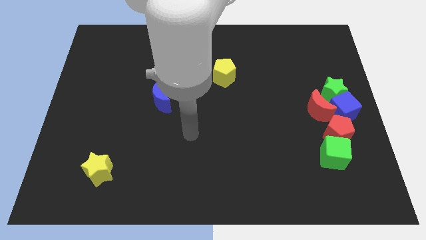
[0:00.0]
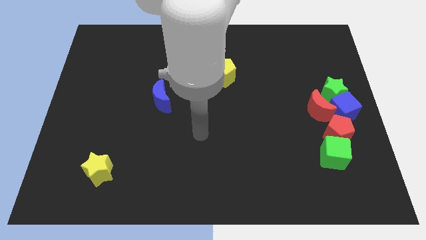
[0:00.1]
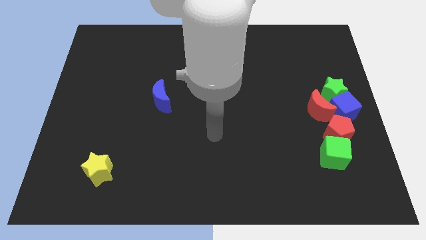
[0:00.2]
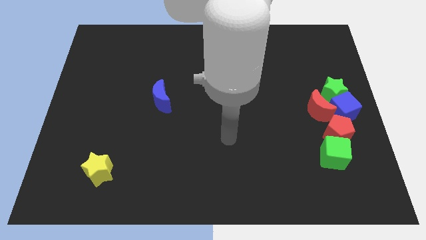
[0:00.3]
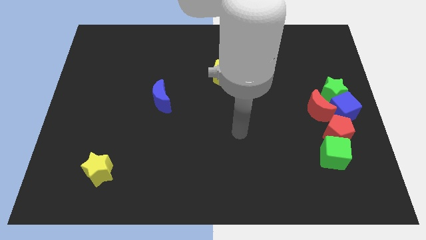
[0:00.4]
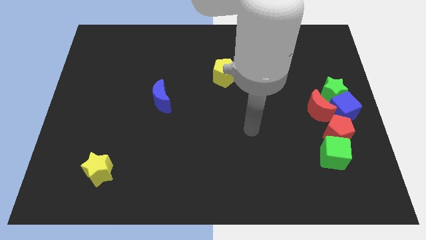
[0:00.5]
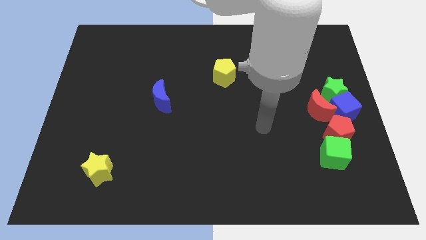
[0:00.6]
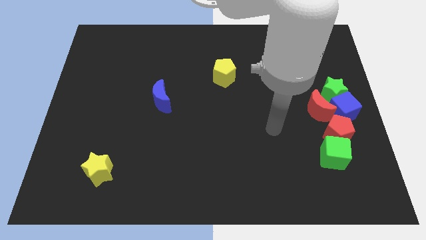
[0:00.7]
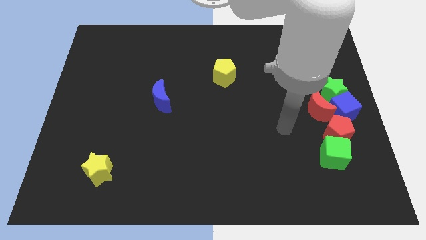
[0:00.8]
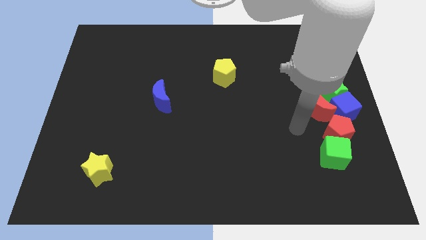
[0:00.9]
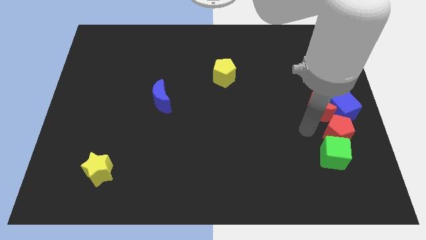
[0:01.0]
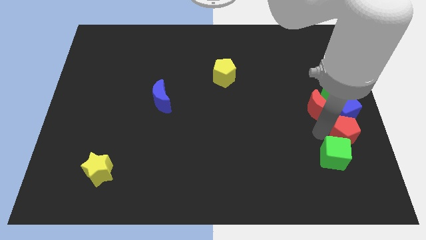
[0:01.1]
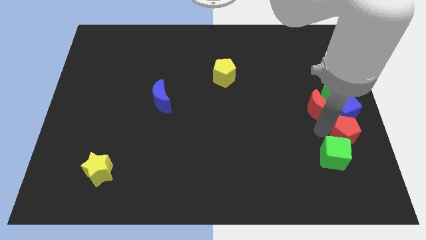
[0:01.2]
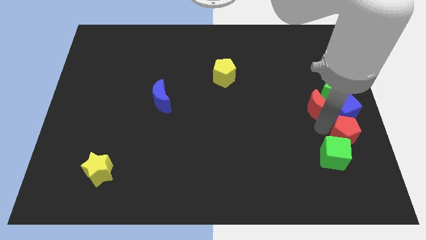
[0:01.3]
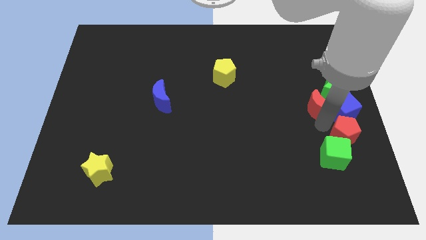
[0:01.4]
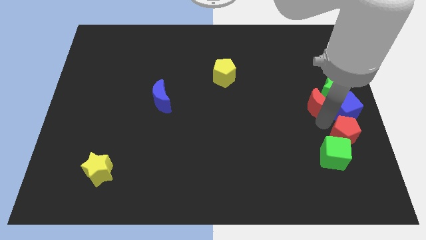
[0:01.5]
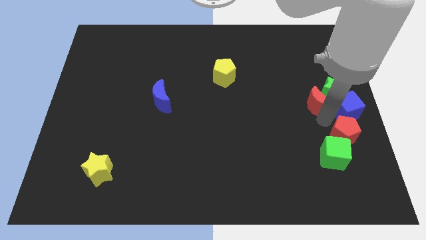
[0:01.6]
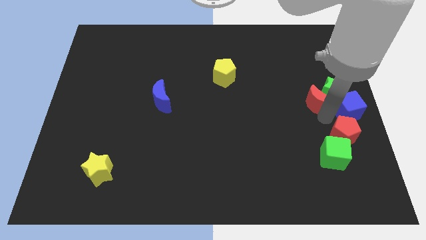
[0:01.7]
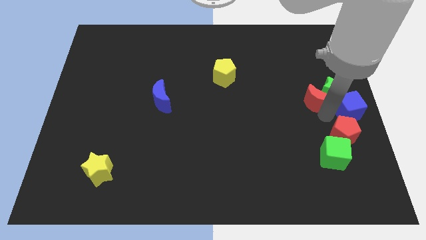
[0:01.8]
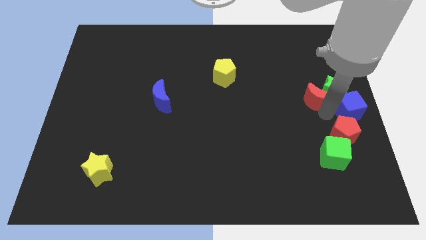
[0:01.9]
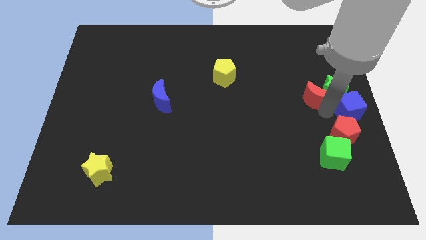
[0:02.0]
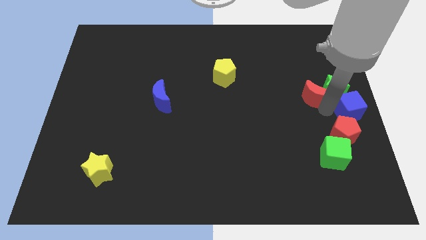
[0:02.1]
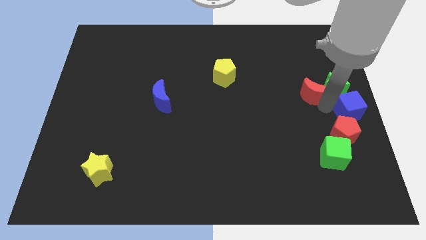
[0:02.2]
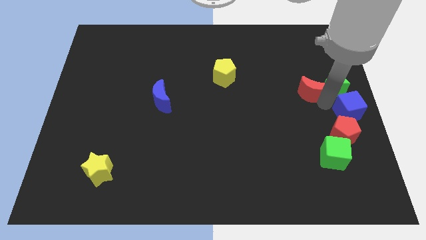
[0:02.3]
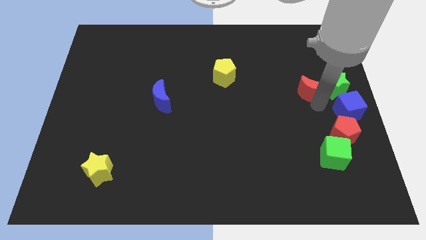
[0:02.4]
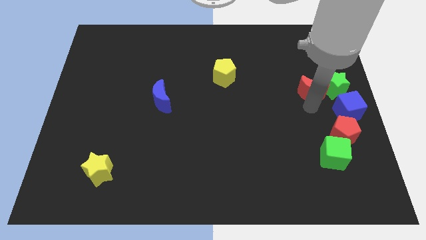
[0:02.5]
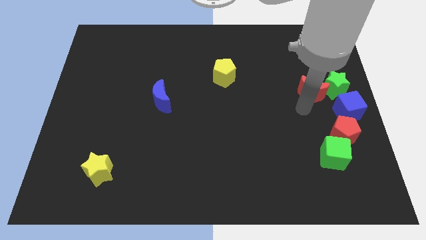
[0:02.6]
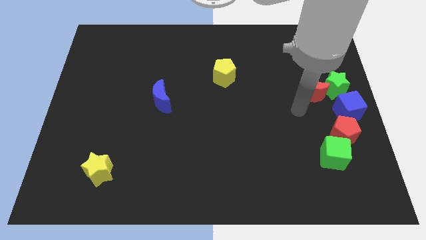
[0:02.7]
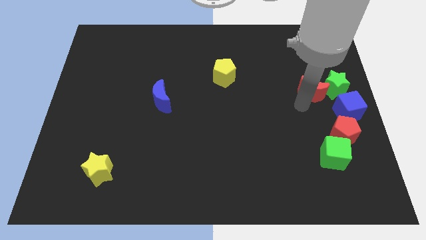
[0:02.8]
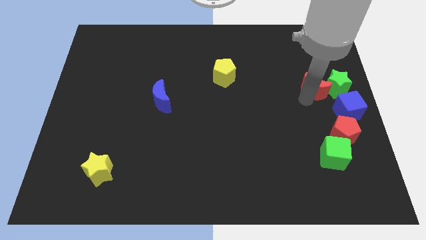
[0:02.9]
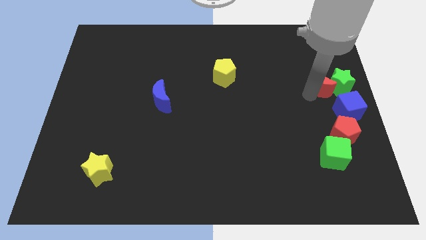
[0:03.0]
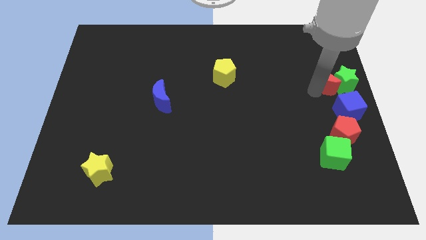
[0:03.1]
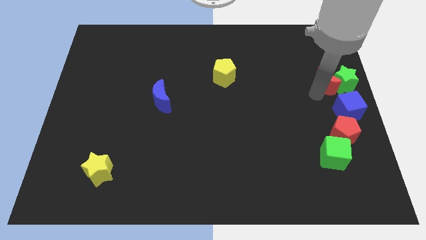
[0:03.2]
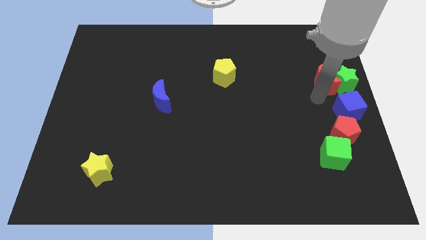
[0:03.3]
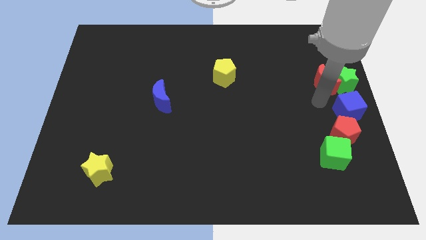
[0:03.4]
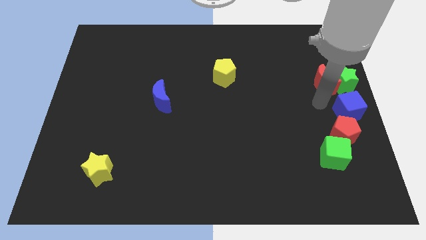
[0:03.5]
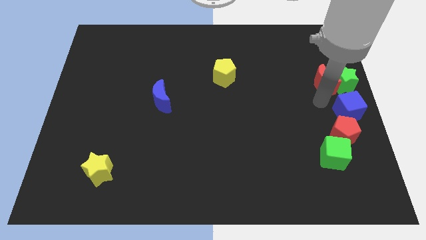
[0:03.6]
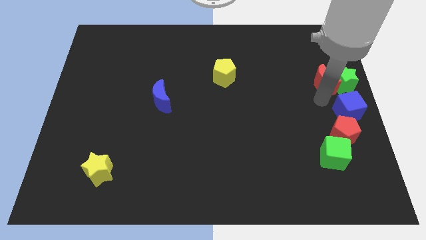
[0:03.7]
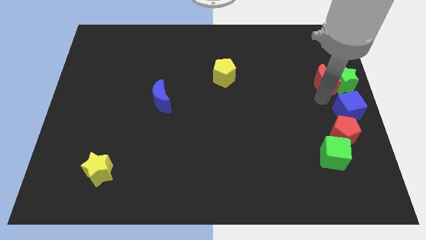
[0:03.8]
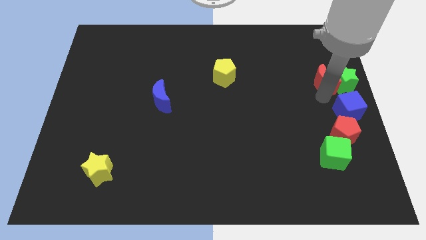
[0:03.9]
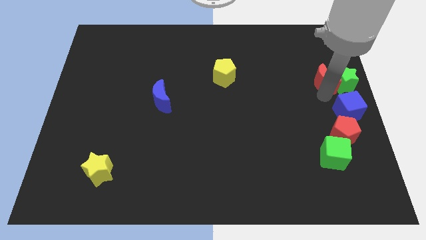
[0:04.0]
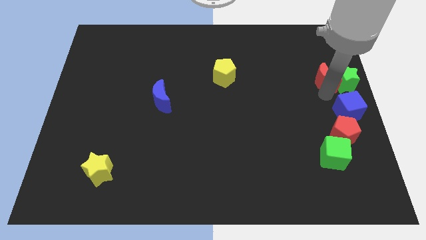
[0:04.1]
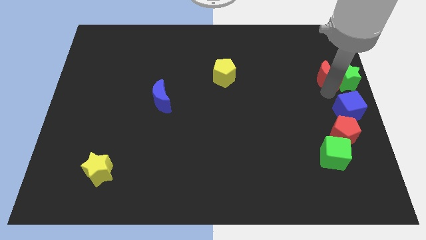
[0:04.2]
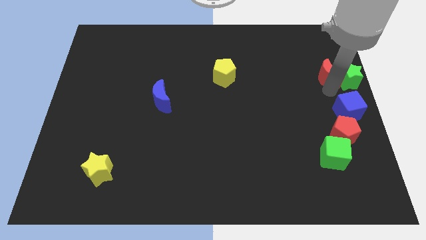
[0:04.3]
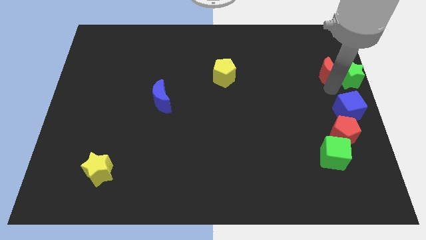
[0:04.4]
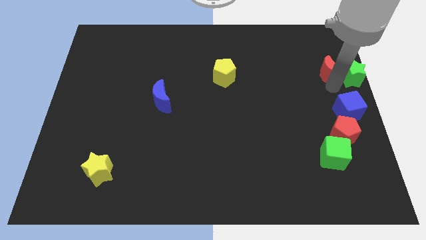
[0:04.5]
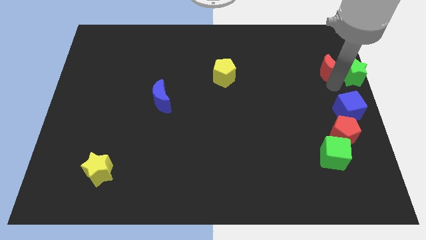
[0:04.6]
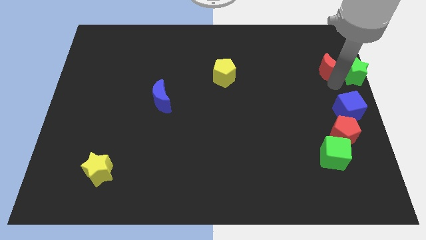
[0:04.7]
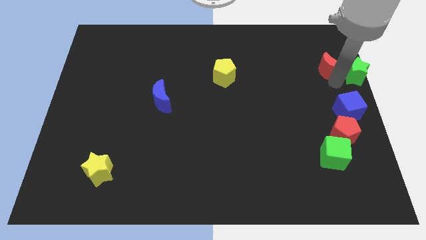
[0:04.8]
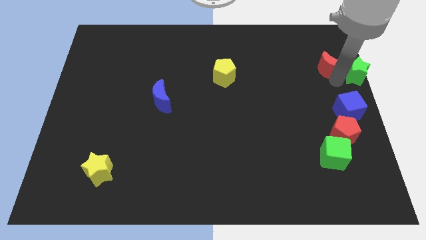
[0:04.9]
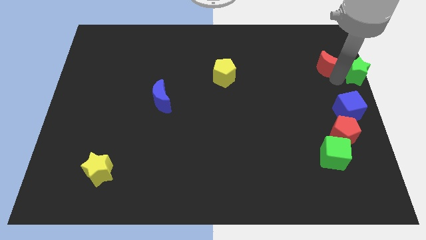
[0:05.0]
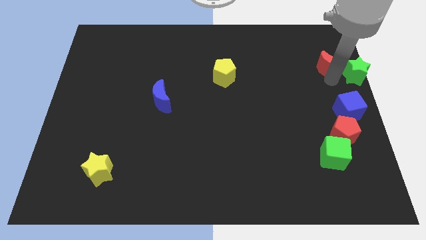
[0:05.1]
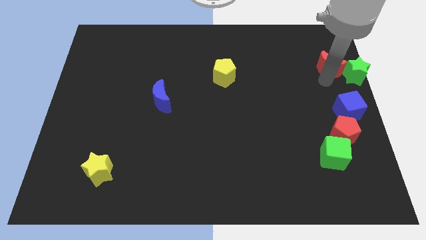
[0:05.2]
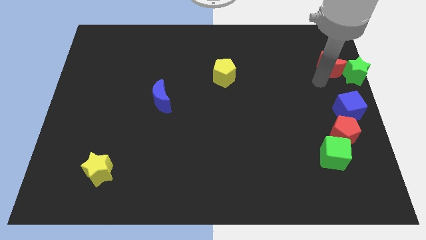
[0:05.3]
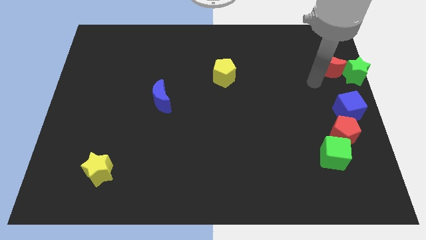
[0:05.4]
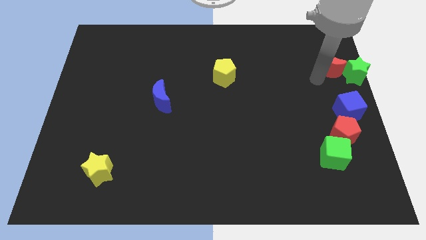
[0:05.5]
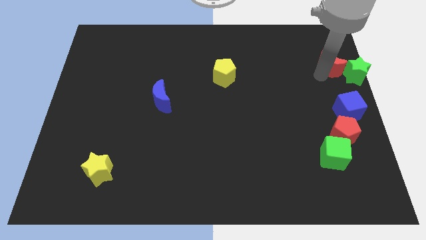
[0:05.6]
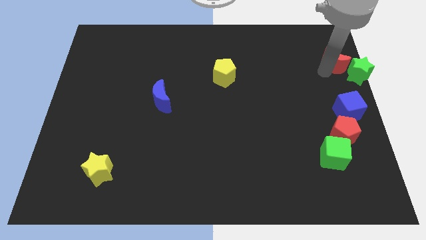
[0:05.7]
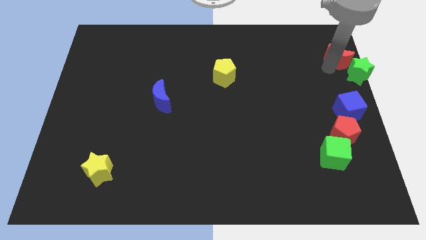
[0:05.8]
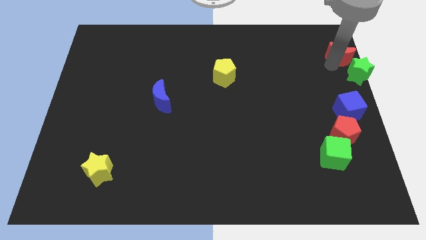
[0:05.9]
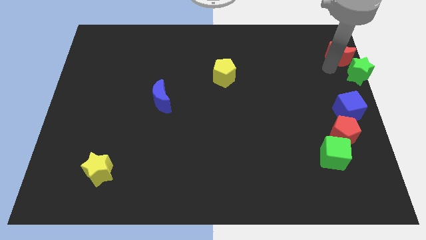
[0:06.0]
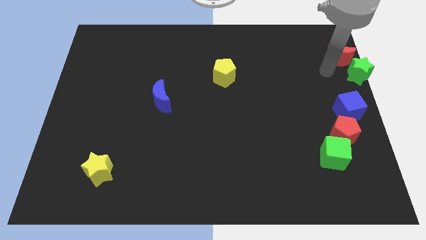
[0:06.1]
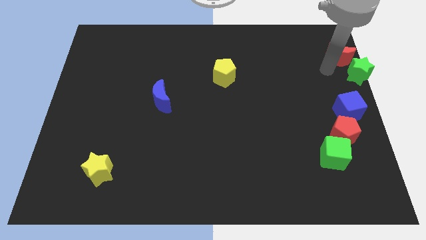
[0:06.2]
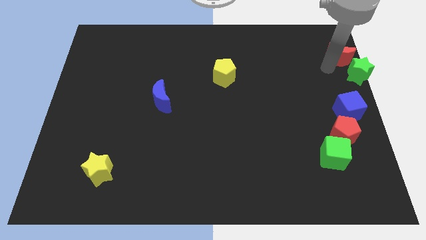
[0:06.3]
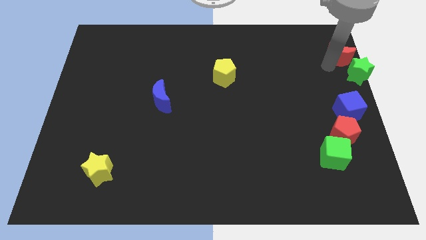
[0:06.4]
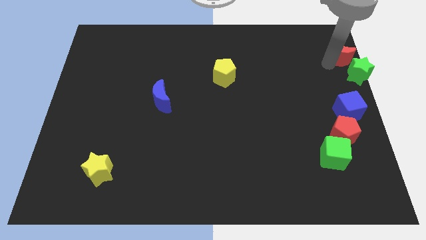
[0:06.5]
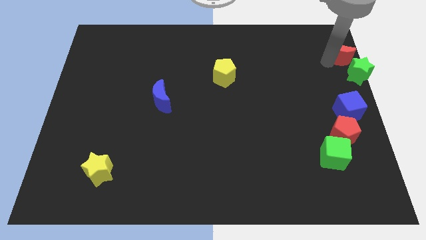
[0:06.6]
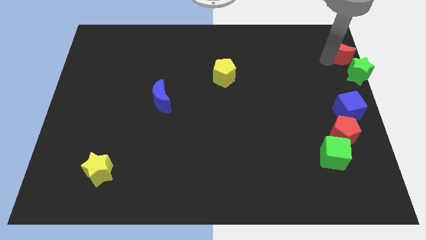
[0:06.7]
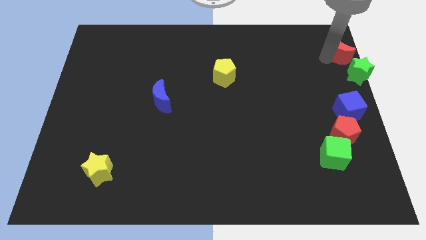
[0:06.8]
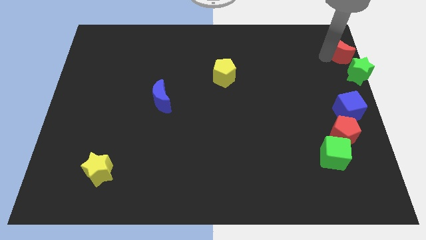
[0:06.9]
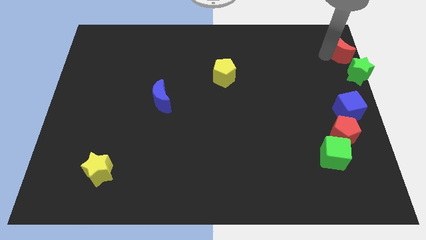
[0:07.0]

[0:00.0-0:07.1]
slide the red moon to the top right corner

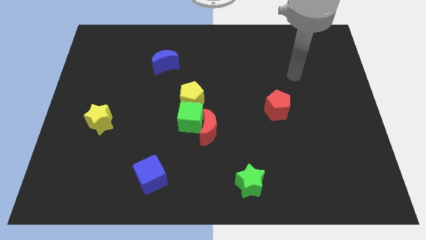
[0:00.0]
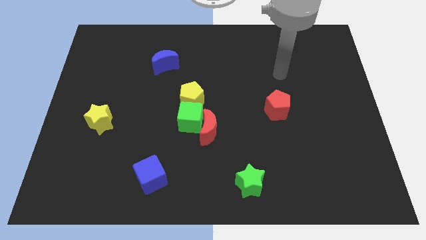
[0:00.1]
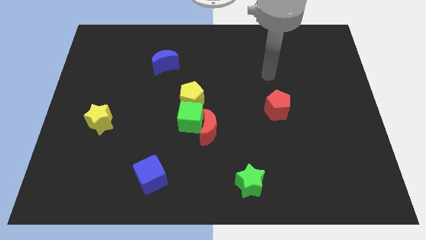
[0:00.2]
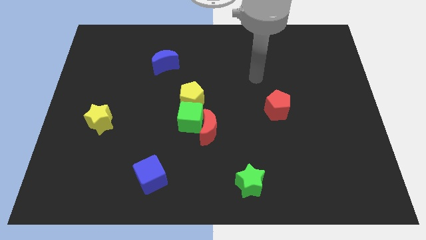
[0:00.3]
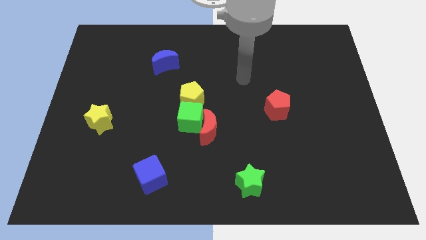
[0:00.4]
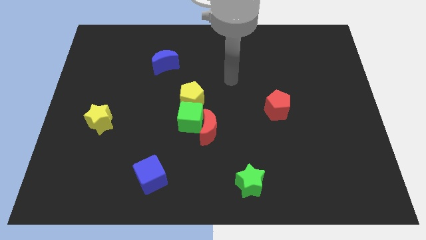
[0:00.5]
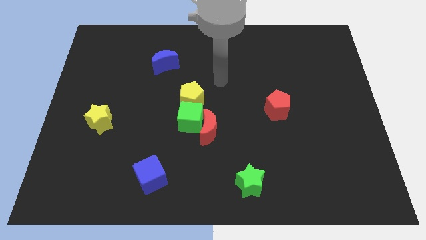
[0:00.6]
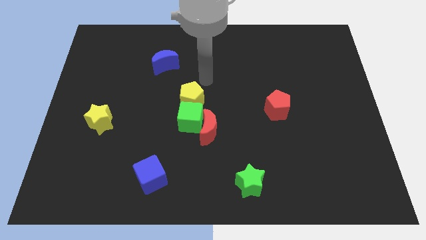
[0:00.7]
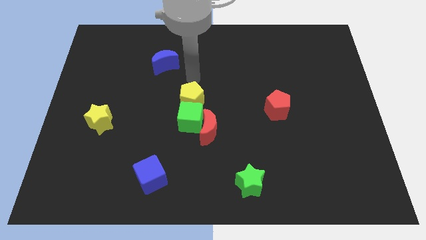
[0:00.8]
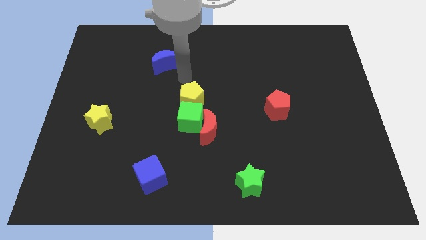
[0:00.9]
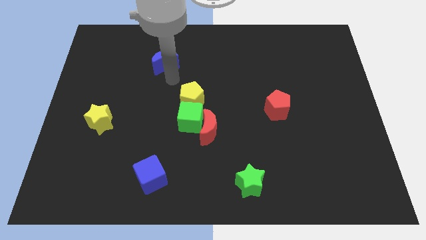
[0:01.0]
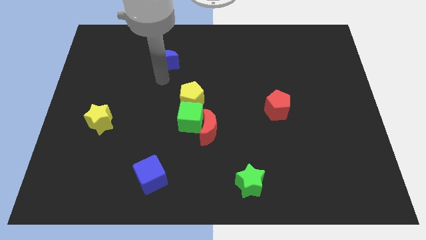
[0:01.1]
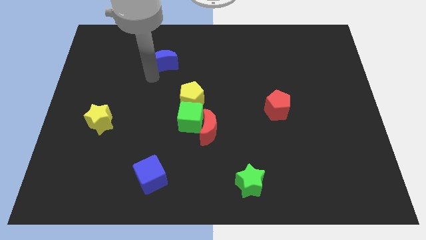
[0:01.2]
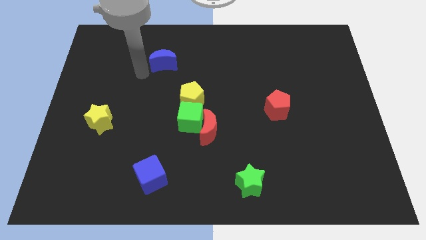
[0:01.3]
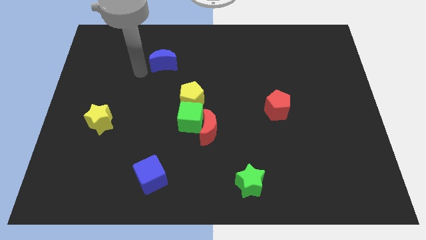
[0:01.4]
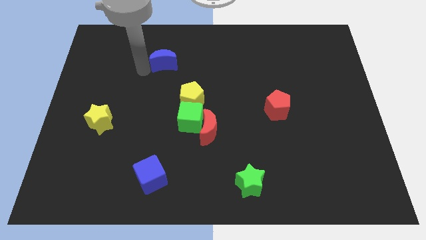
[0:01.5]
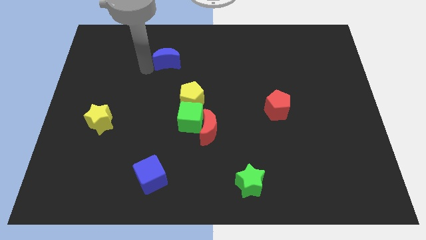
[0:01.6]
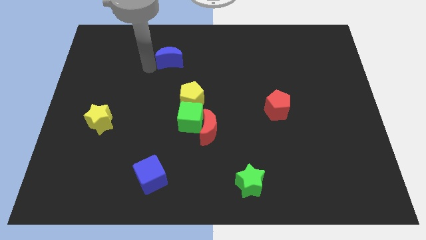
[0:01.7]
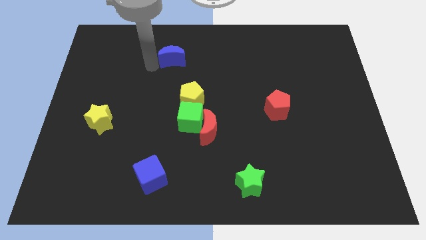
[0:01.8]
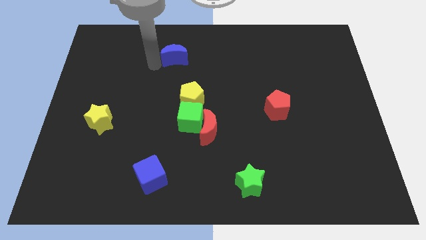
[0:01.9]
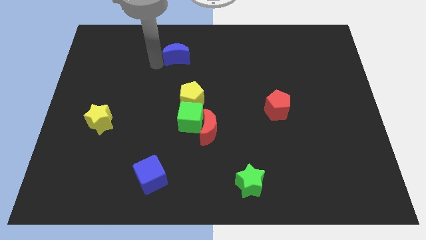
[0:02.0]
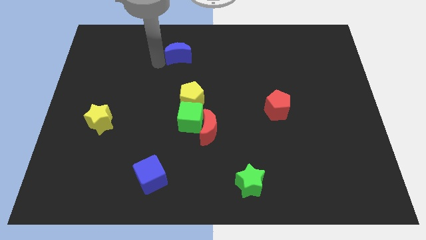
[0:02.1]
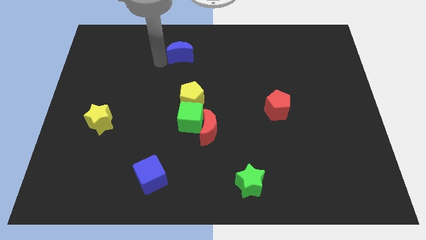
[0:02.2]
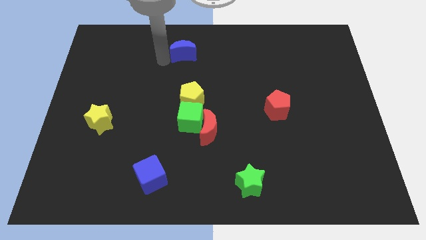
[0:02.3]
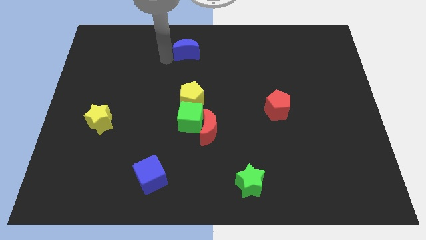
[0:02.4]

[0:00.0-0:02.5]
push the blue moon to the top
